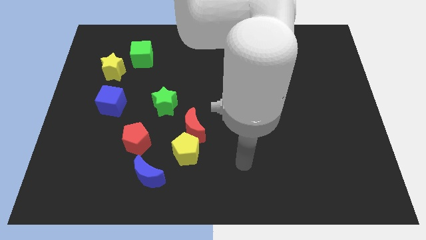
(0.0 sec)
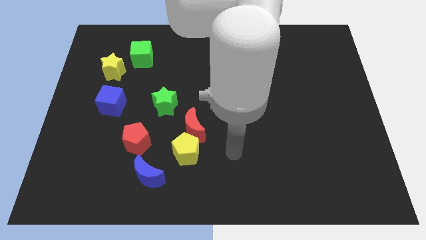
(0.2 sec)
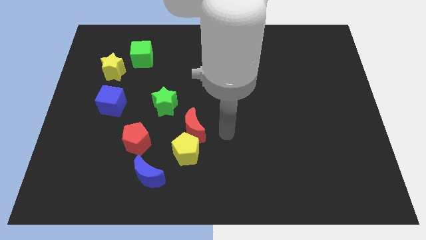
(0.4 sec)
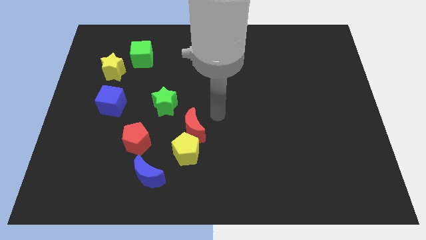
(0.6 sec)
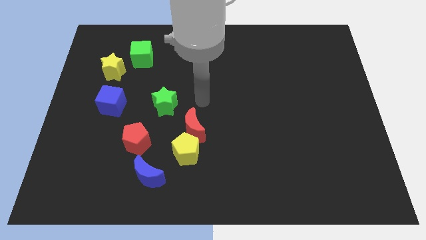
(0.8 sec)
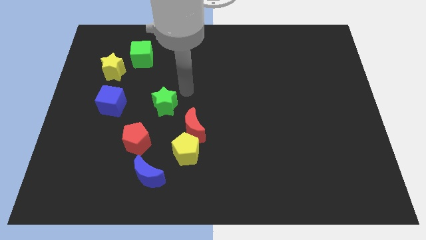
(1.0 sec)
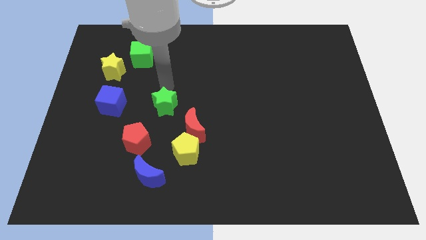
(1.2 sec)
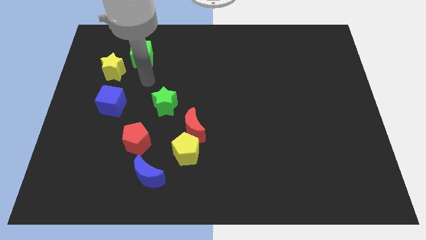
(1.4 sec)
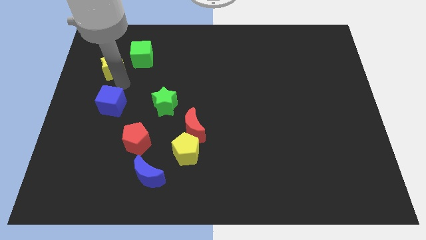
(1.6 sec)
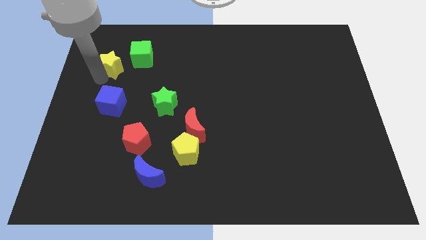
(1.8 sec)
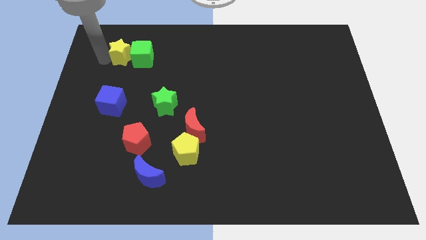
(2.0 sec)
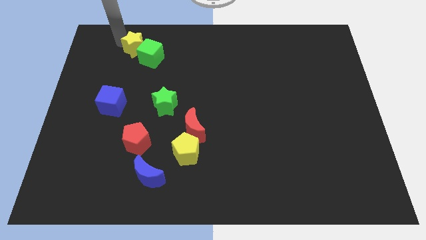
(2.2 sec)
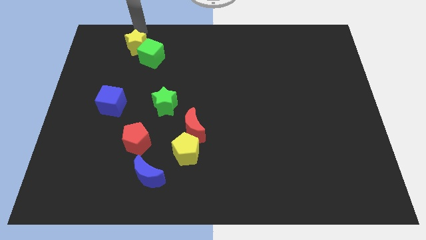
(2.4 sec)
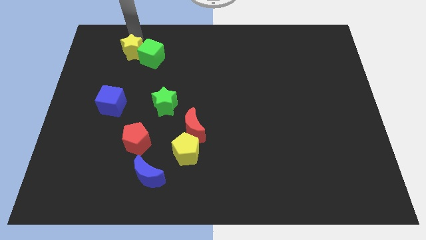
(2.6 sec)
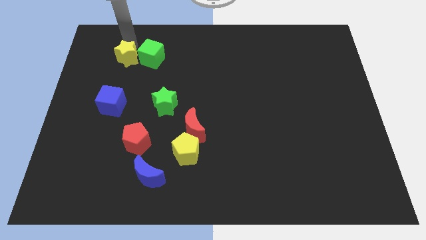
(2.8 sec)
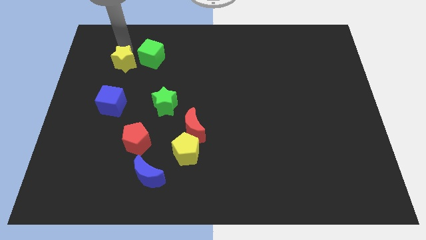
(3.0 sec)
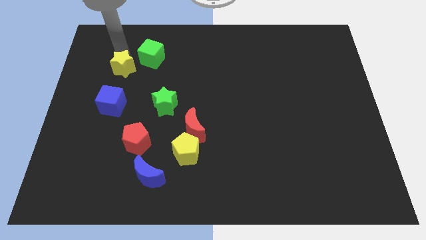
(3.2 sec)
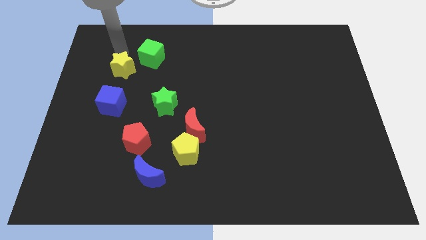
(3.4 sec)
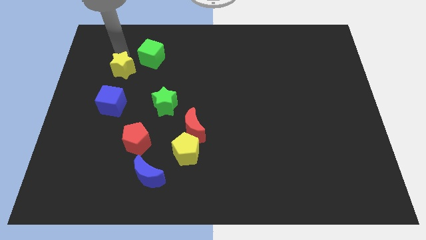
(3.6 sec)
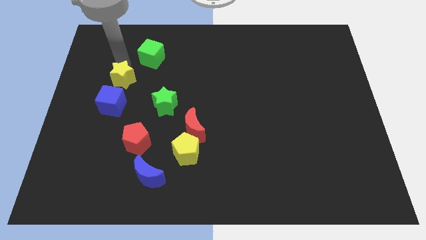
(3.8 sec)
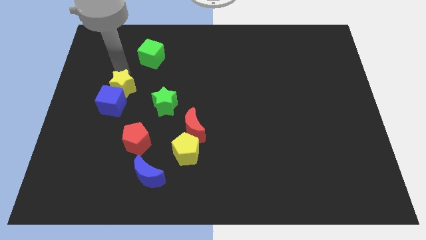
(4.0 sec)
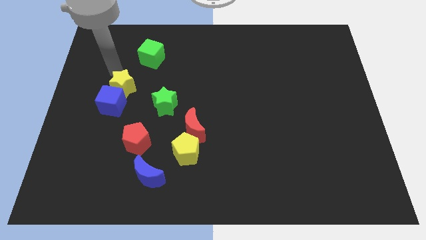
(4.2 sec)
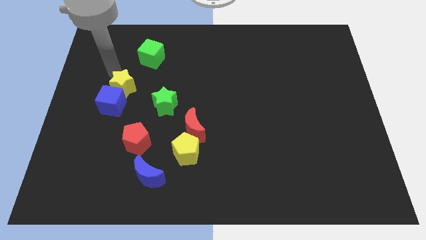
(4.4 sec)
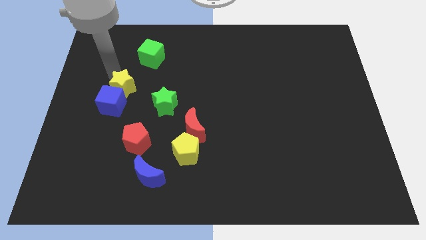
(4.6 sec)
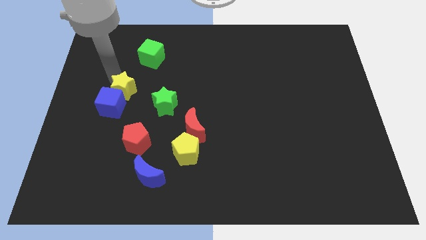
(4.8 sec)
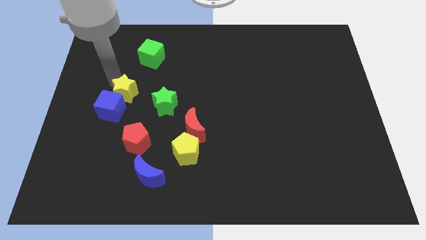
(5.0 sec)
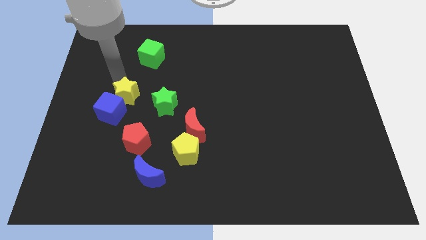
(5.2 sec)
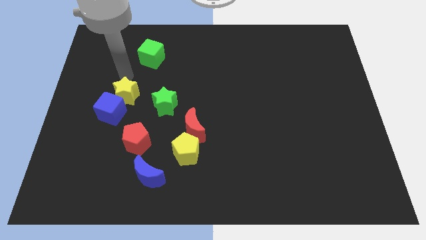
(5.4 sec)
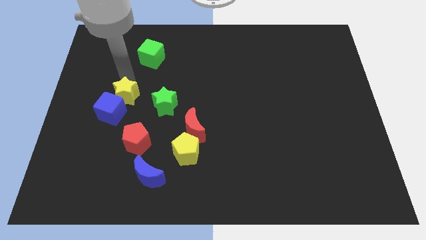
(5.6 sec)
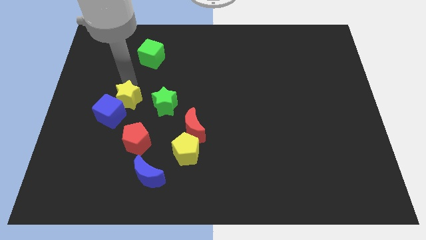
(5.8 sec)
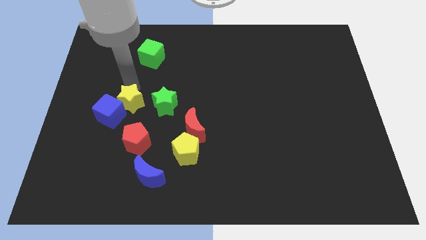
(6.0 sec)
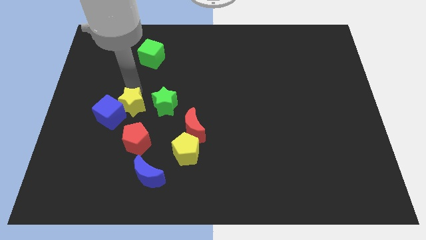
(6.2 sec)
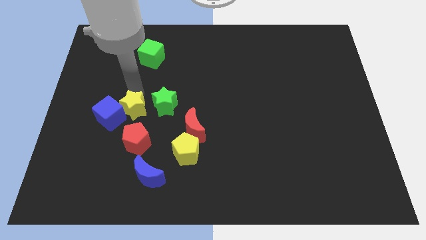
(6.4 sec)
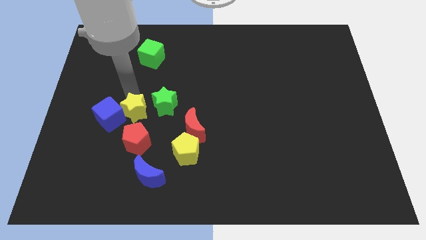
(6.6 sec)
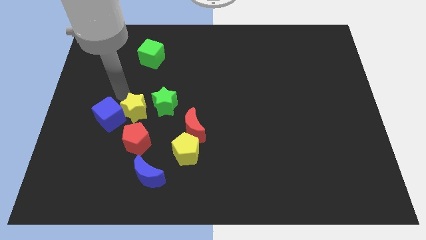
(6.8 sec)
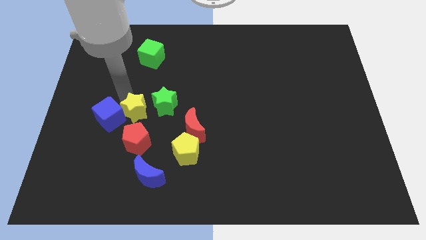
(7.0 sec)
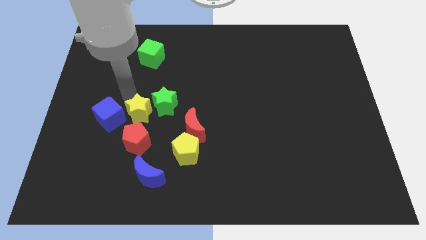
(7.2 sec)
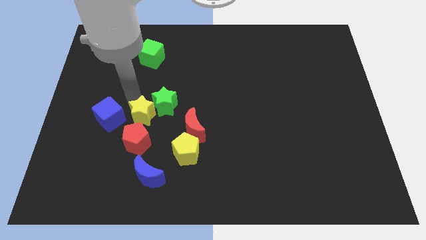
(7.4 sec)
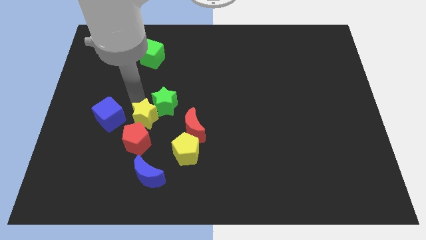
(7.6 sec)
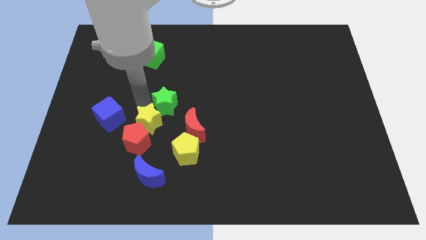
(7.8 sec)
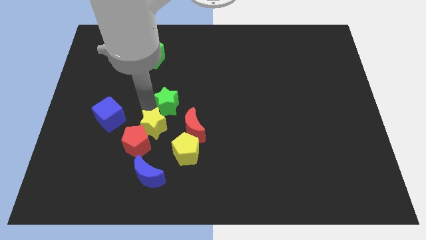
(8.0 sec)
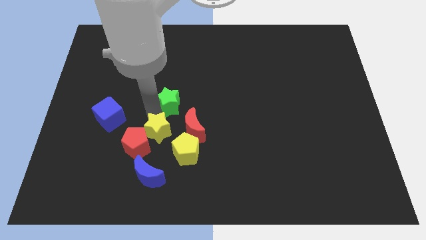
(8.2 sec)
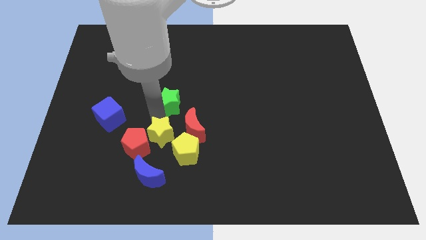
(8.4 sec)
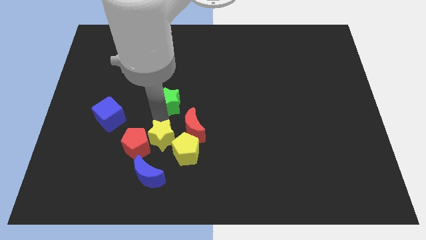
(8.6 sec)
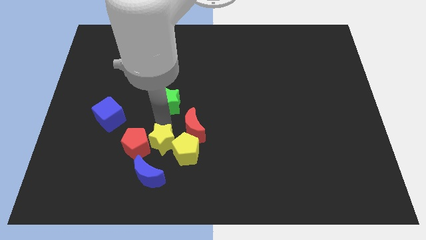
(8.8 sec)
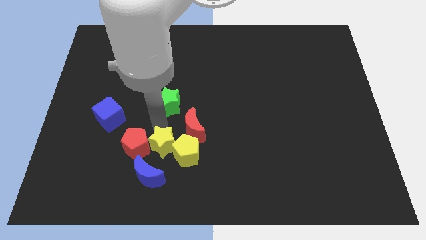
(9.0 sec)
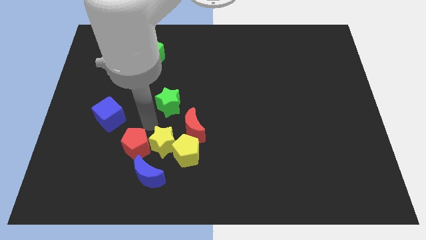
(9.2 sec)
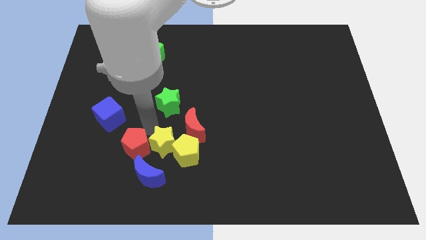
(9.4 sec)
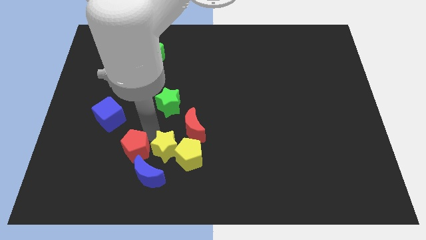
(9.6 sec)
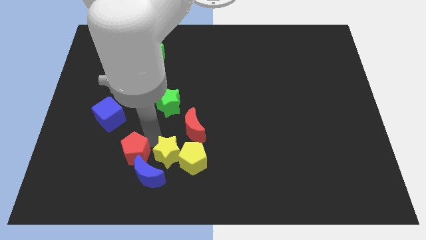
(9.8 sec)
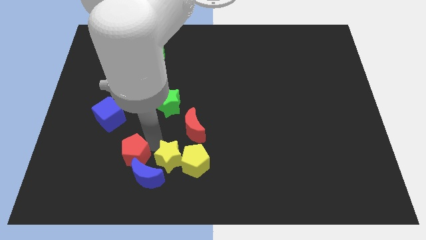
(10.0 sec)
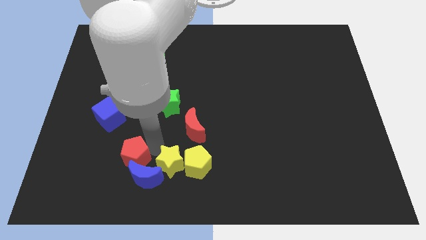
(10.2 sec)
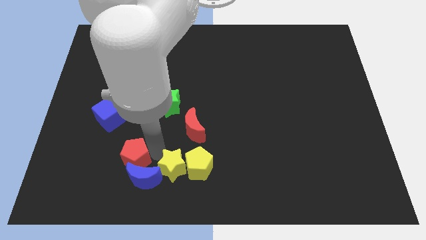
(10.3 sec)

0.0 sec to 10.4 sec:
move the yellow star to the bottom
